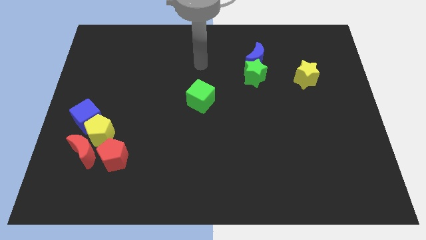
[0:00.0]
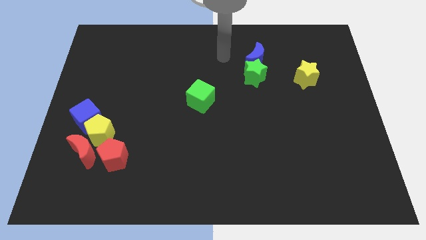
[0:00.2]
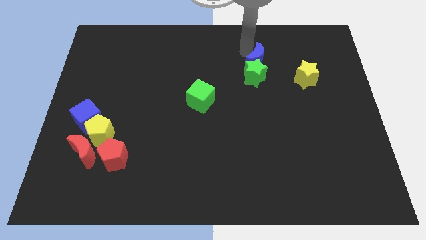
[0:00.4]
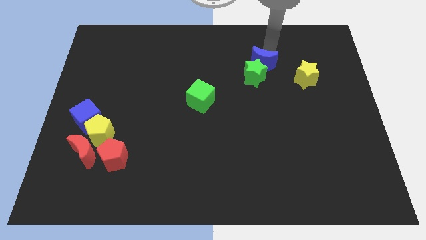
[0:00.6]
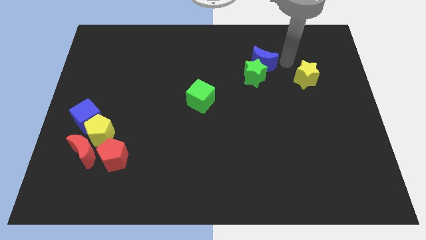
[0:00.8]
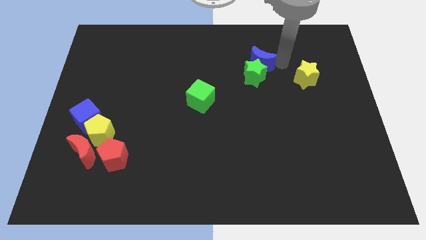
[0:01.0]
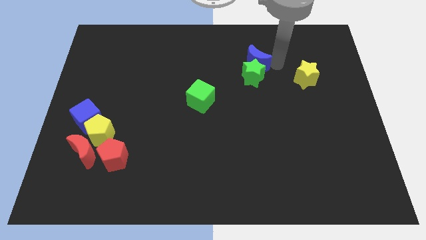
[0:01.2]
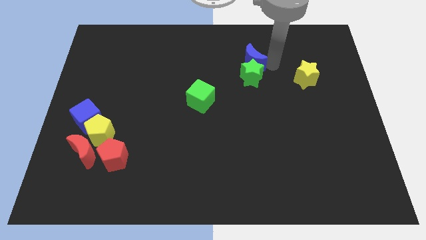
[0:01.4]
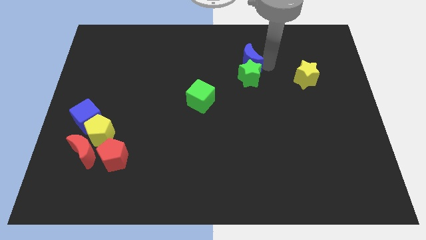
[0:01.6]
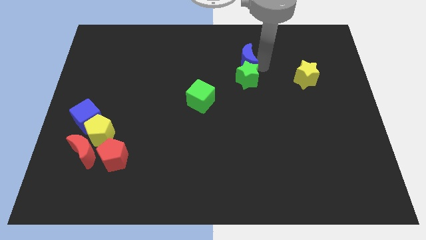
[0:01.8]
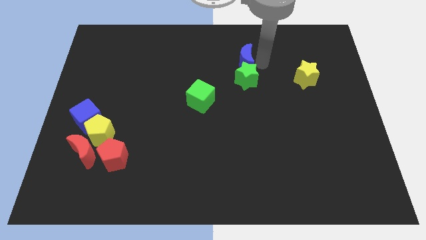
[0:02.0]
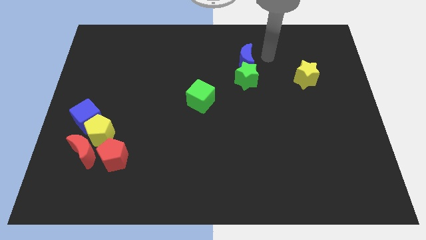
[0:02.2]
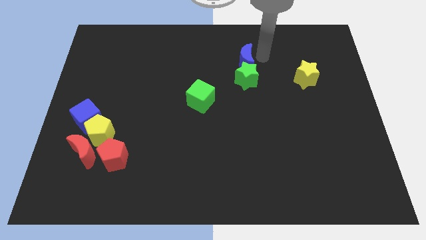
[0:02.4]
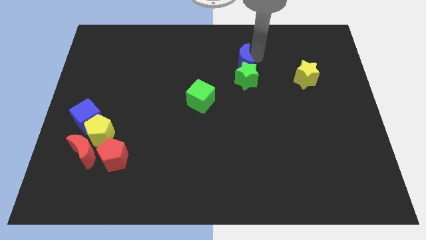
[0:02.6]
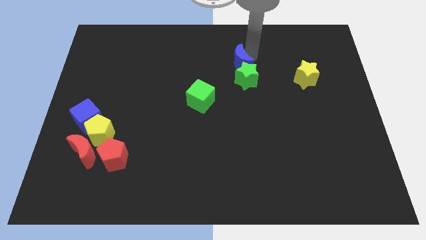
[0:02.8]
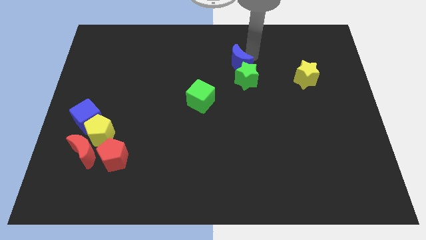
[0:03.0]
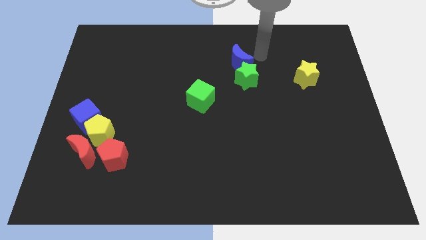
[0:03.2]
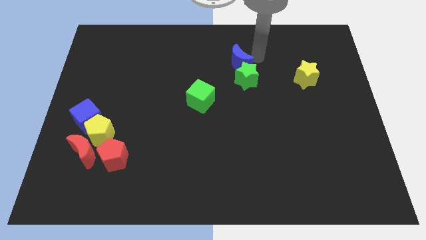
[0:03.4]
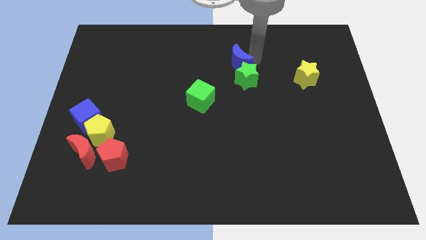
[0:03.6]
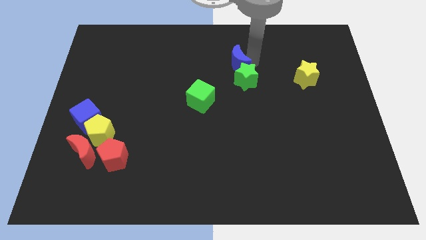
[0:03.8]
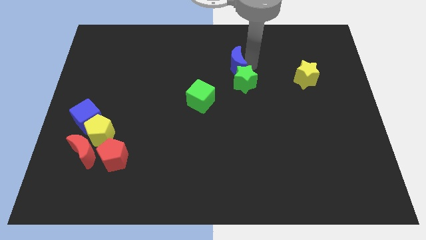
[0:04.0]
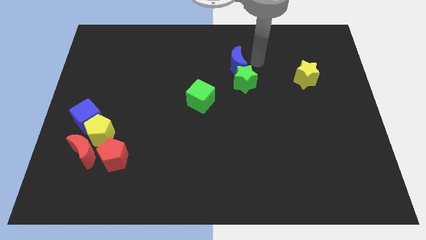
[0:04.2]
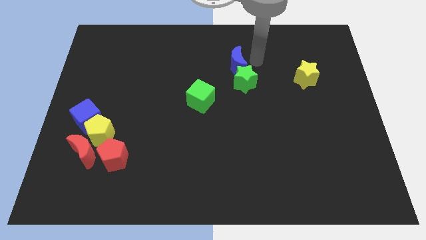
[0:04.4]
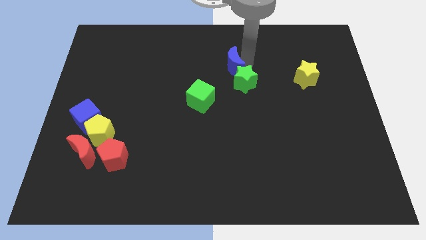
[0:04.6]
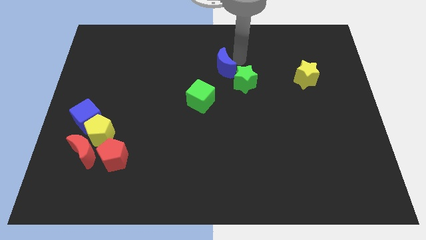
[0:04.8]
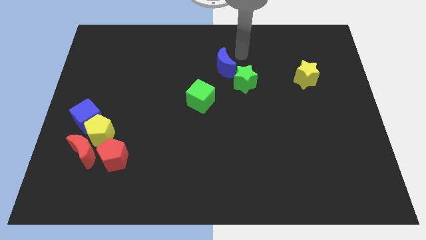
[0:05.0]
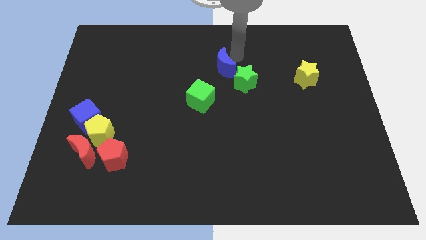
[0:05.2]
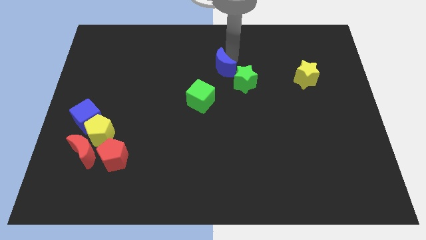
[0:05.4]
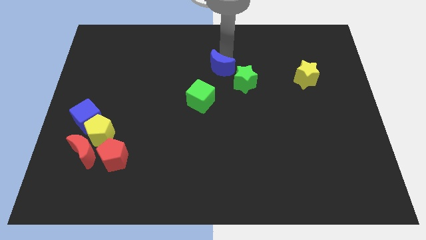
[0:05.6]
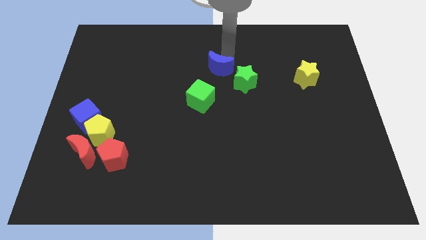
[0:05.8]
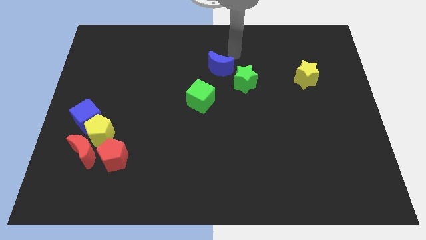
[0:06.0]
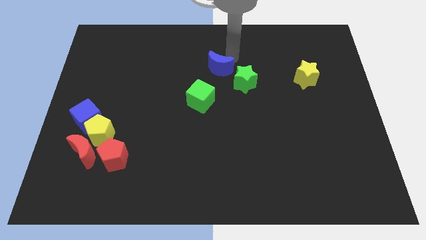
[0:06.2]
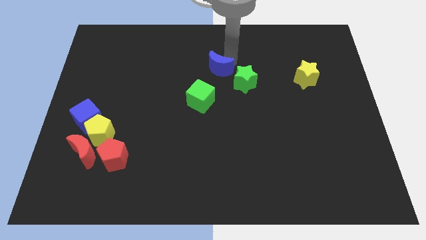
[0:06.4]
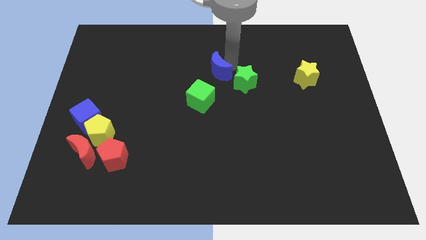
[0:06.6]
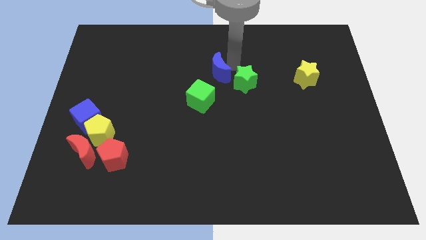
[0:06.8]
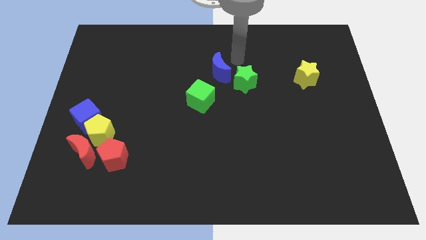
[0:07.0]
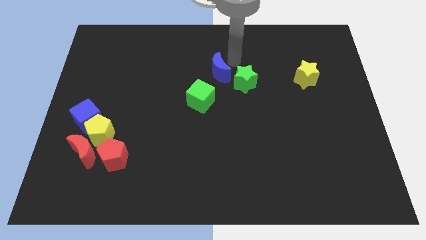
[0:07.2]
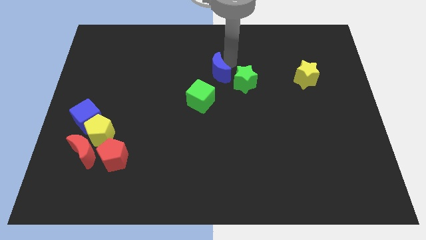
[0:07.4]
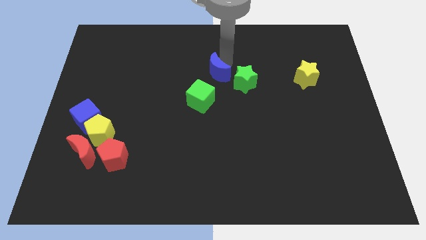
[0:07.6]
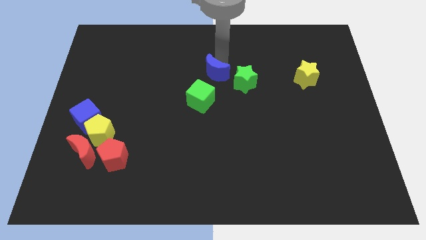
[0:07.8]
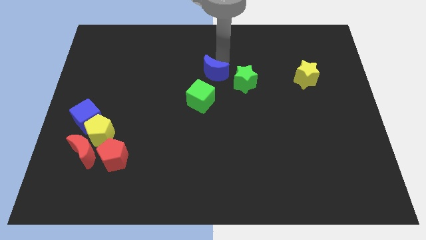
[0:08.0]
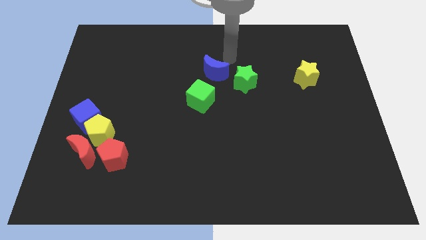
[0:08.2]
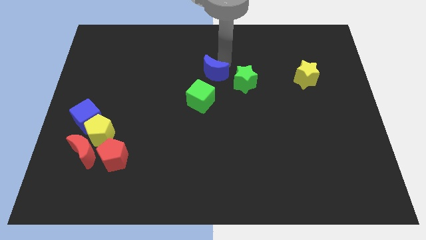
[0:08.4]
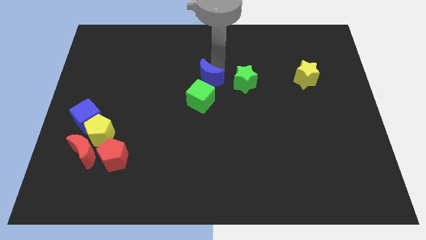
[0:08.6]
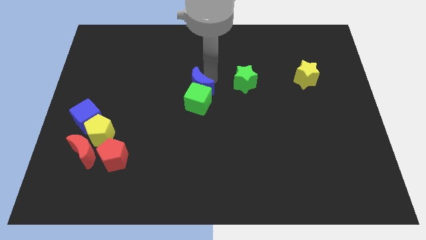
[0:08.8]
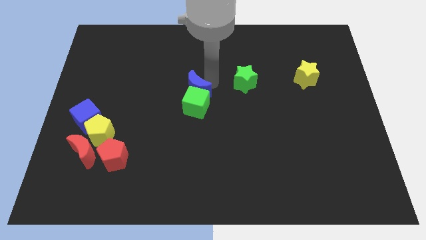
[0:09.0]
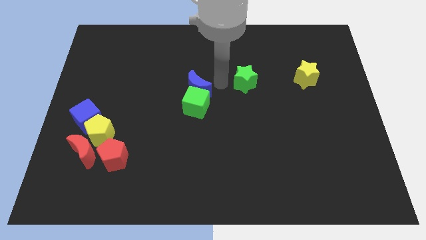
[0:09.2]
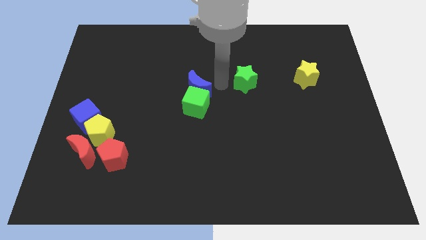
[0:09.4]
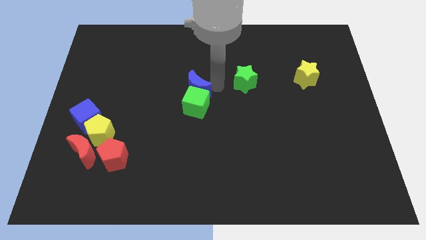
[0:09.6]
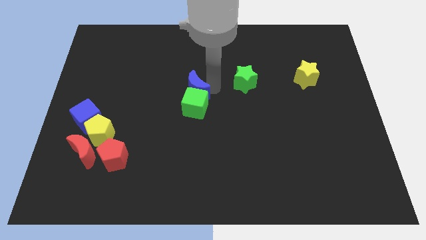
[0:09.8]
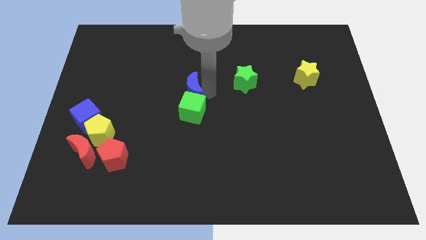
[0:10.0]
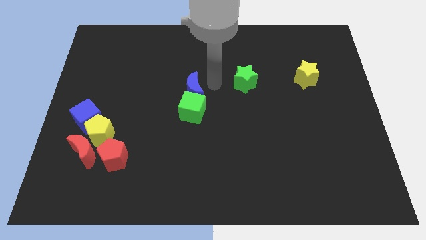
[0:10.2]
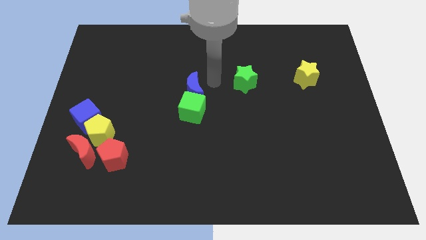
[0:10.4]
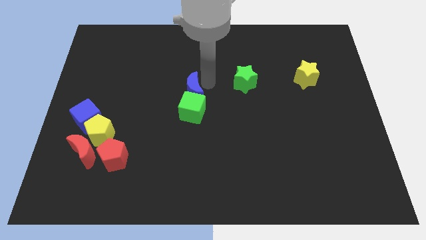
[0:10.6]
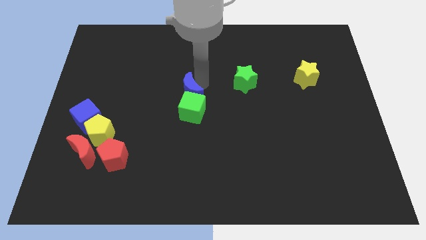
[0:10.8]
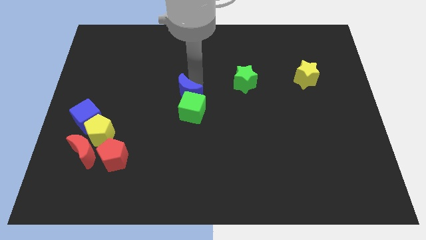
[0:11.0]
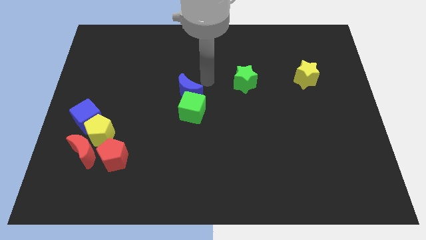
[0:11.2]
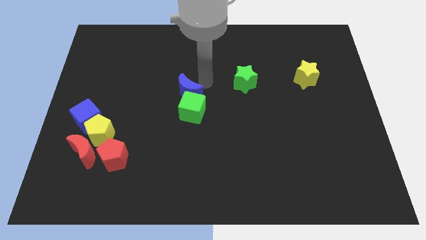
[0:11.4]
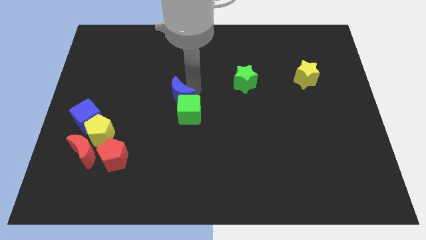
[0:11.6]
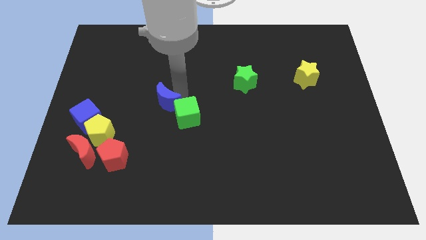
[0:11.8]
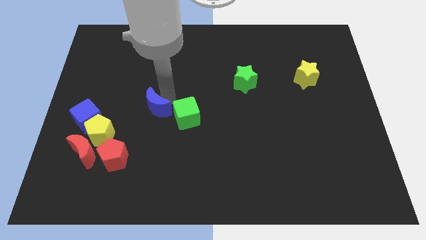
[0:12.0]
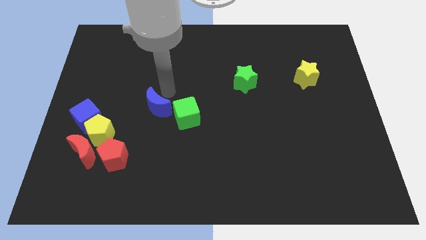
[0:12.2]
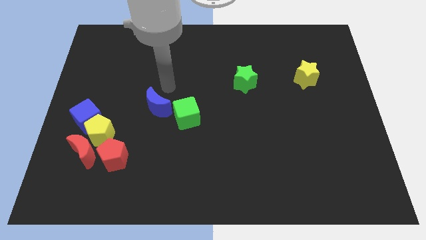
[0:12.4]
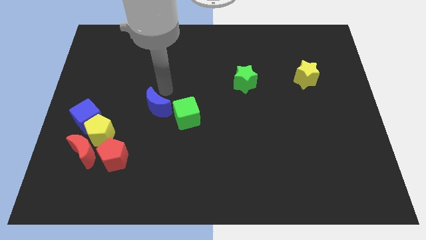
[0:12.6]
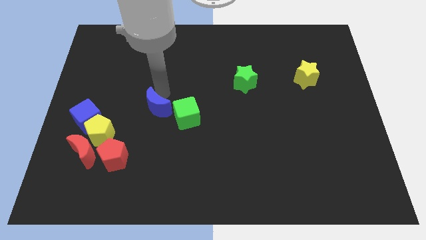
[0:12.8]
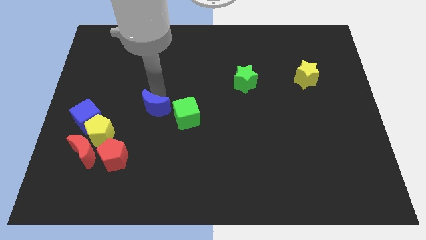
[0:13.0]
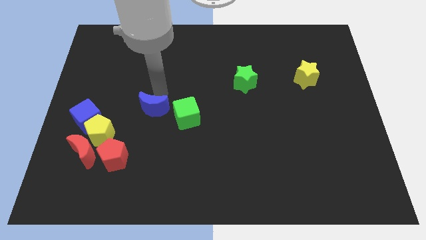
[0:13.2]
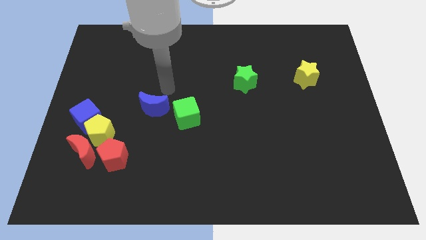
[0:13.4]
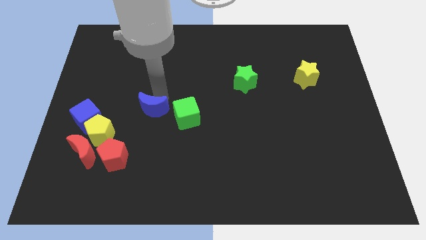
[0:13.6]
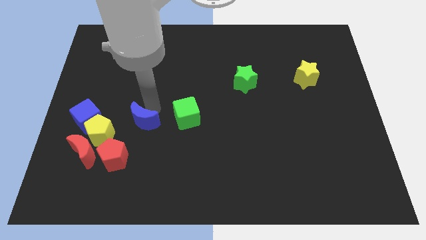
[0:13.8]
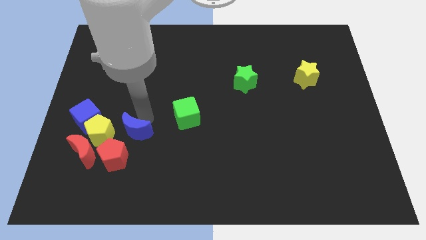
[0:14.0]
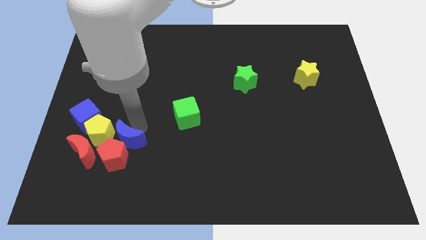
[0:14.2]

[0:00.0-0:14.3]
put the blue moon to the red pentagon

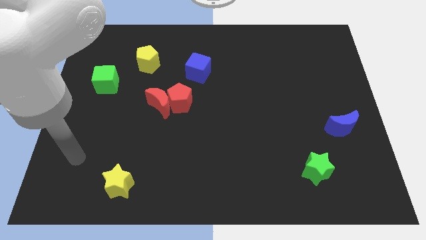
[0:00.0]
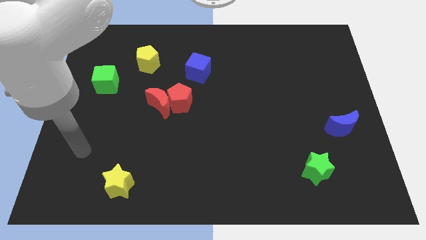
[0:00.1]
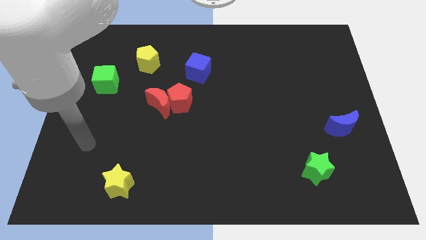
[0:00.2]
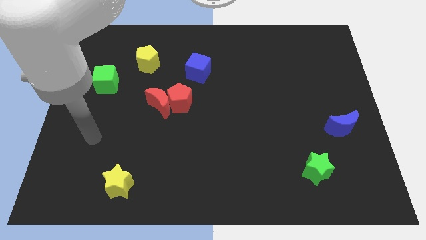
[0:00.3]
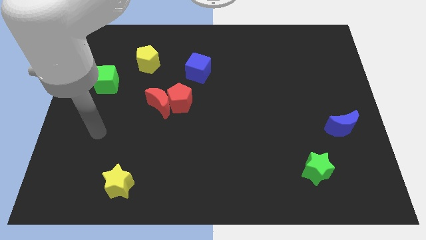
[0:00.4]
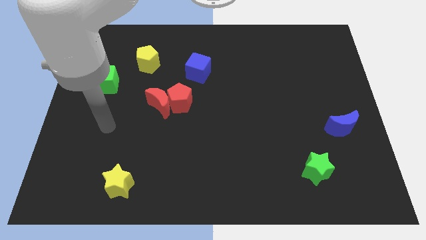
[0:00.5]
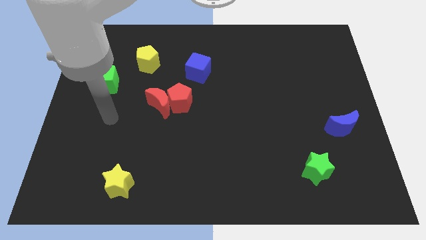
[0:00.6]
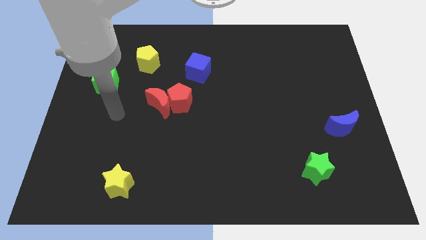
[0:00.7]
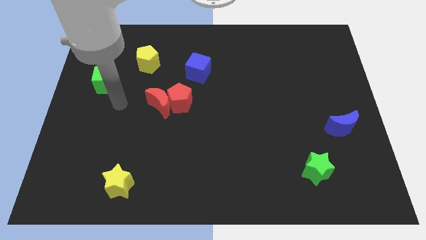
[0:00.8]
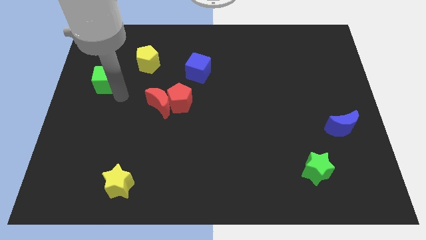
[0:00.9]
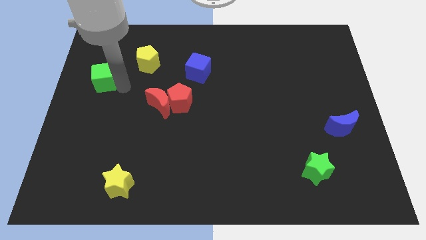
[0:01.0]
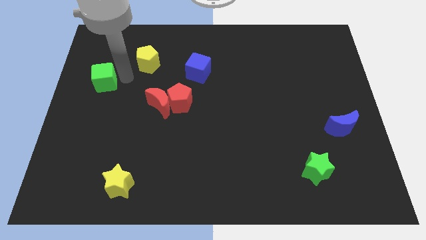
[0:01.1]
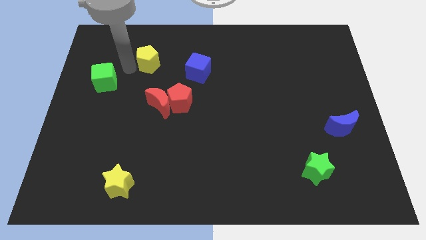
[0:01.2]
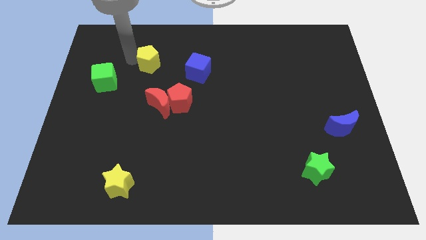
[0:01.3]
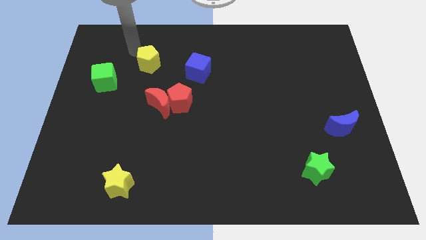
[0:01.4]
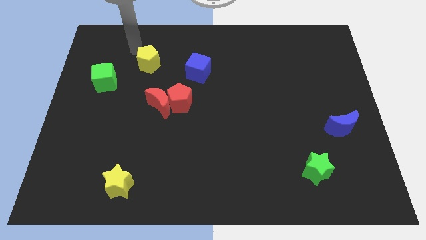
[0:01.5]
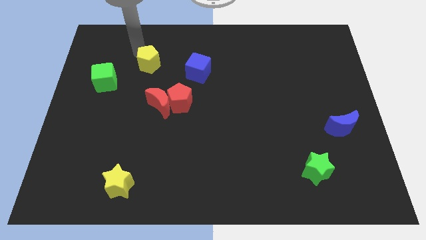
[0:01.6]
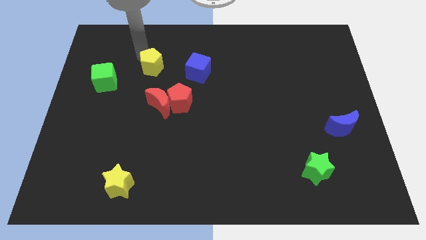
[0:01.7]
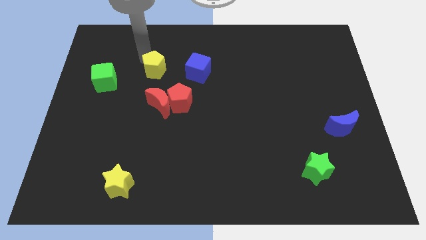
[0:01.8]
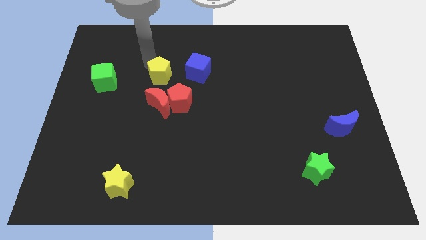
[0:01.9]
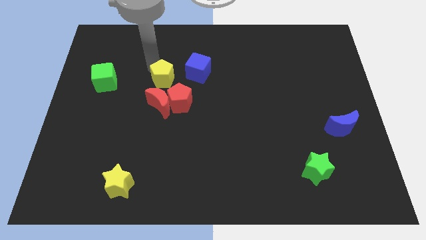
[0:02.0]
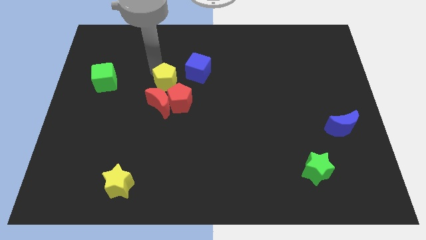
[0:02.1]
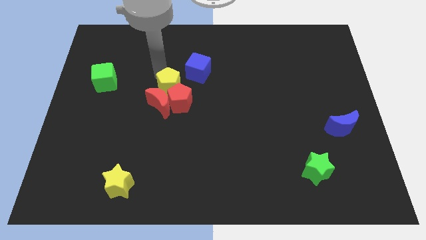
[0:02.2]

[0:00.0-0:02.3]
push the yellow pentagon next to the red pentagon
